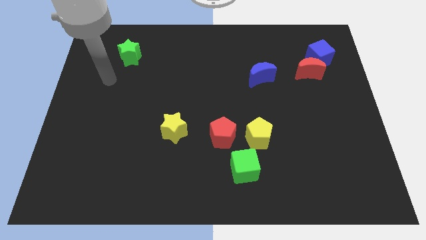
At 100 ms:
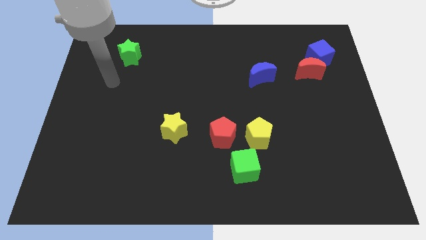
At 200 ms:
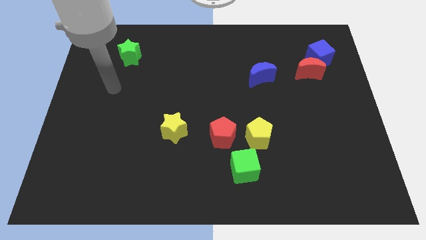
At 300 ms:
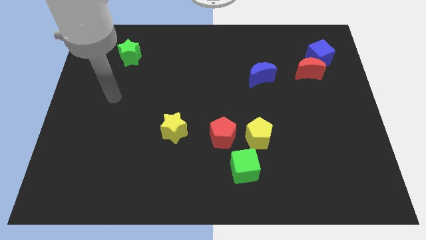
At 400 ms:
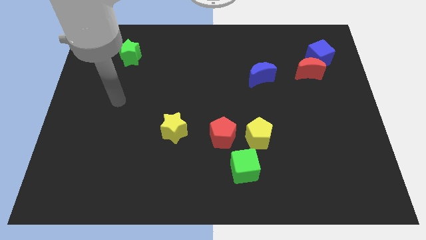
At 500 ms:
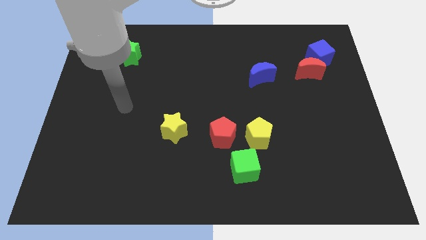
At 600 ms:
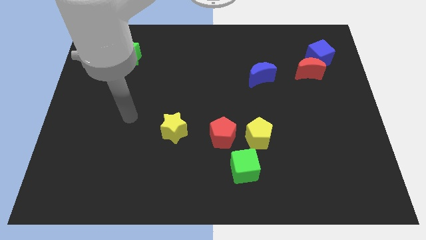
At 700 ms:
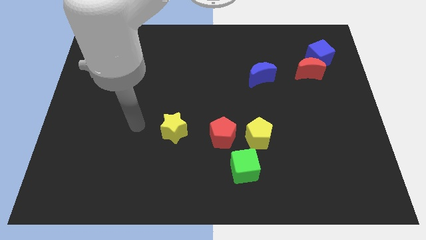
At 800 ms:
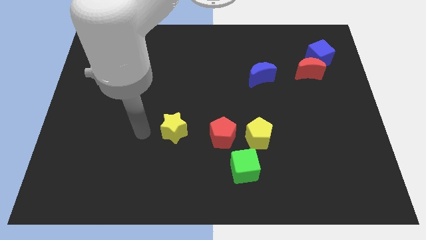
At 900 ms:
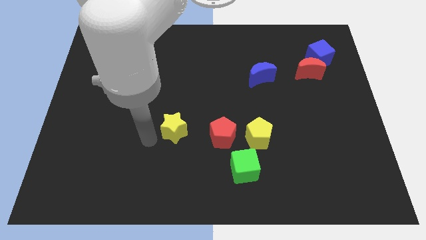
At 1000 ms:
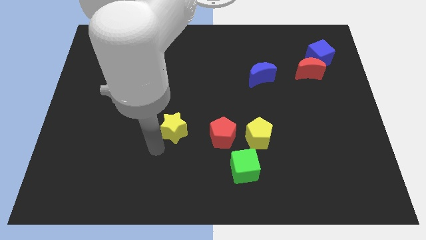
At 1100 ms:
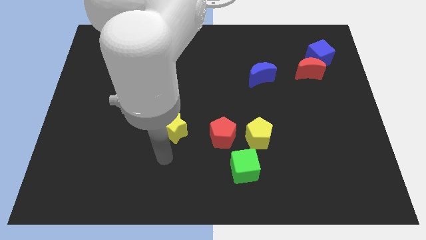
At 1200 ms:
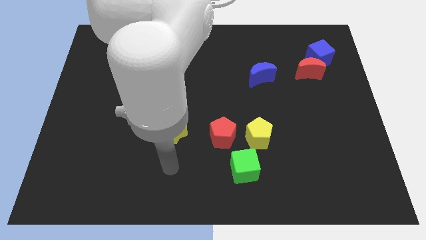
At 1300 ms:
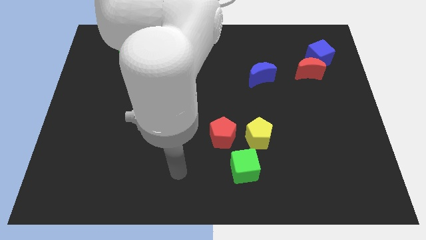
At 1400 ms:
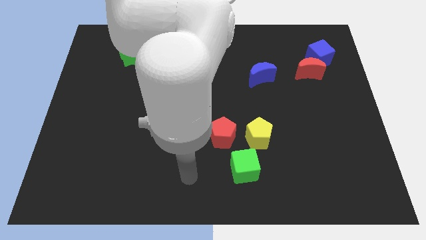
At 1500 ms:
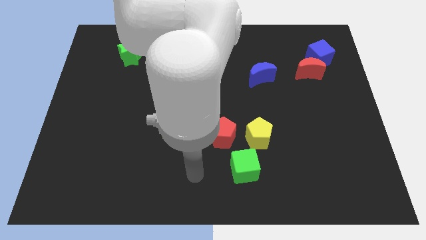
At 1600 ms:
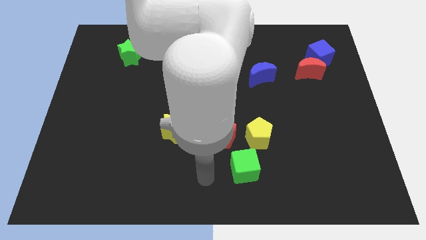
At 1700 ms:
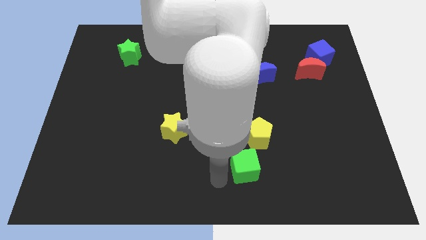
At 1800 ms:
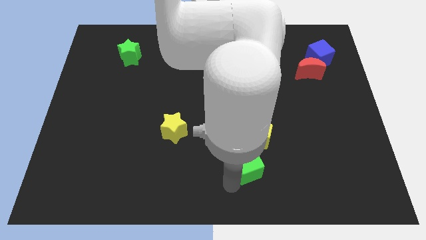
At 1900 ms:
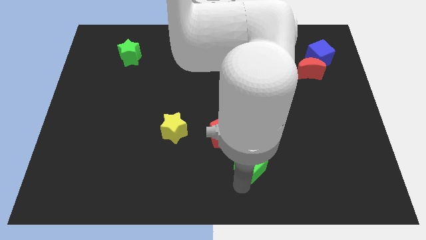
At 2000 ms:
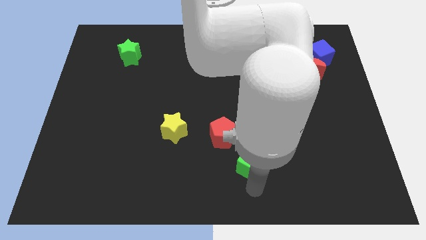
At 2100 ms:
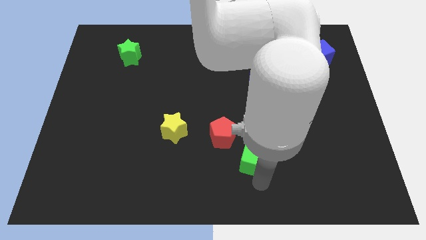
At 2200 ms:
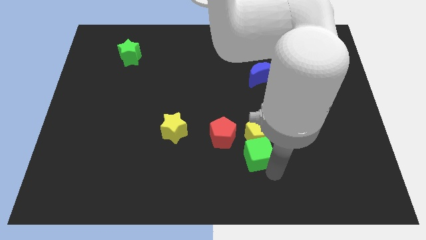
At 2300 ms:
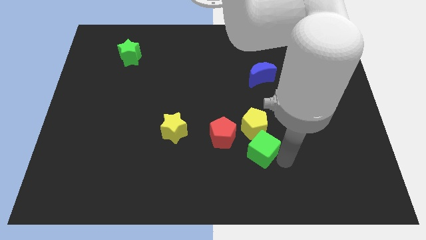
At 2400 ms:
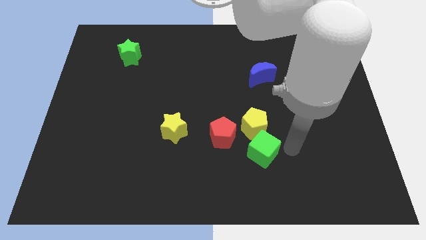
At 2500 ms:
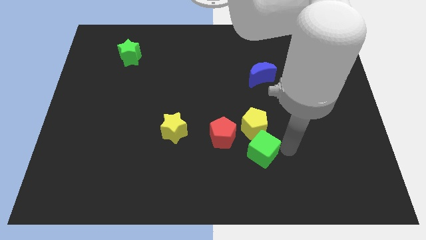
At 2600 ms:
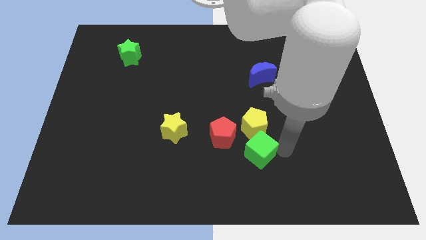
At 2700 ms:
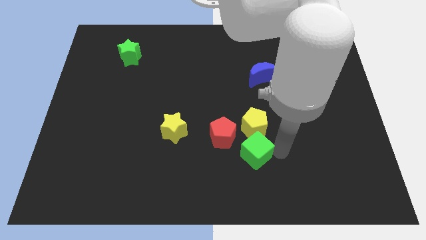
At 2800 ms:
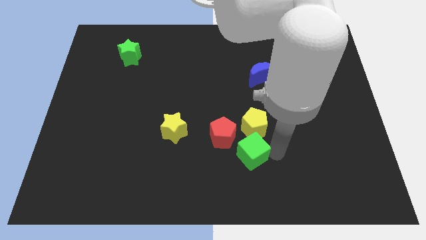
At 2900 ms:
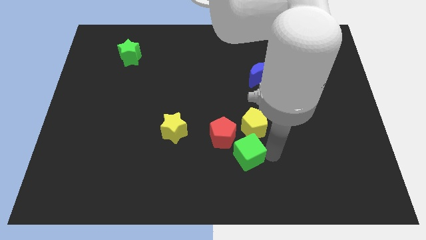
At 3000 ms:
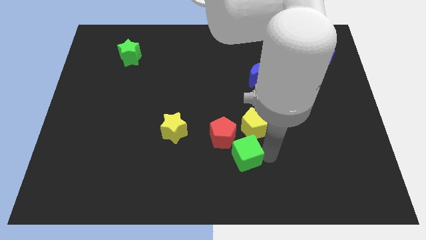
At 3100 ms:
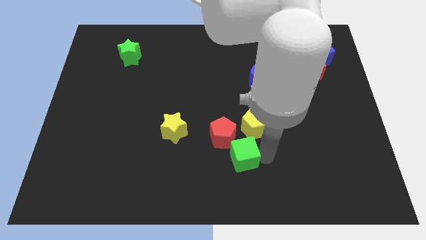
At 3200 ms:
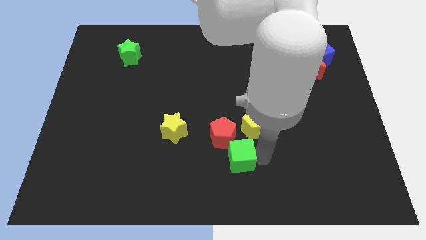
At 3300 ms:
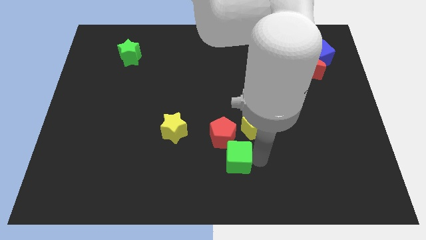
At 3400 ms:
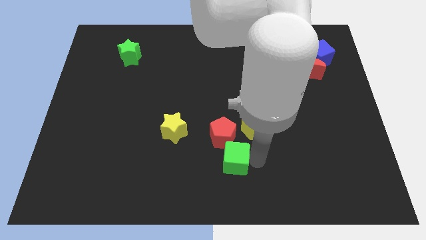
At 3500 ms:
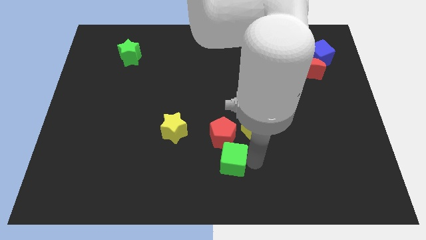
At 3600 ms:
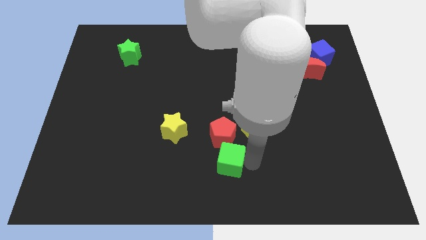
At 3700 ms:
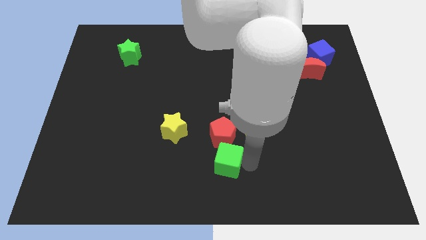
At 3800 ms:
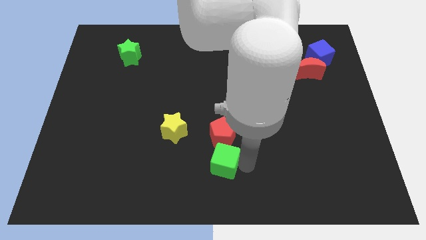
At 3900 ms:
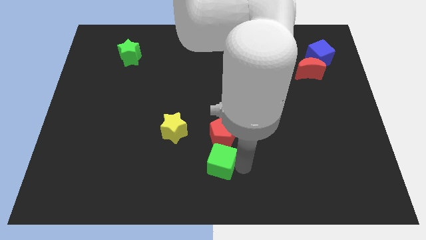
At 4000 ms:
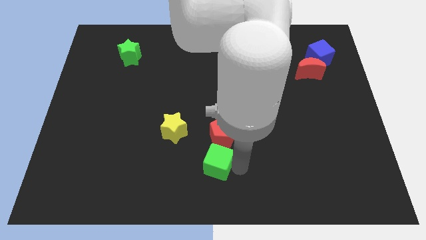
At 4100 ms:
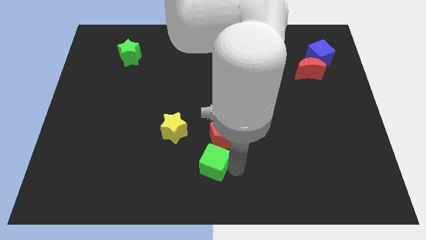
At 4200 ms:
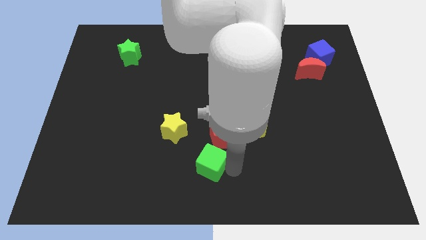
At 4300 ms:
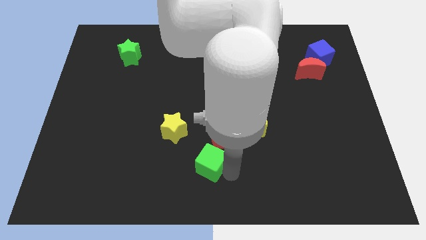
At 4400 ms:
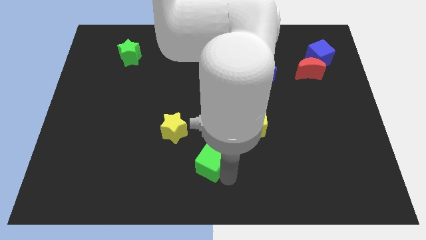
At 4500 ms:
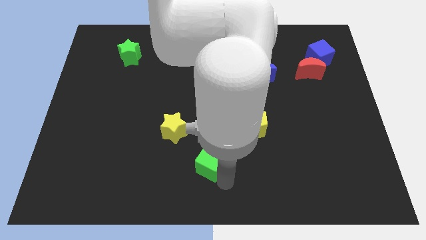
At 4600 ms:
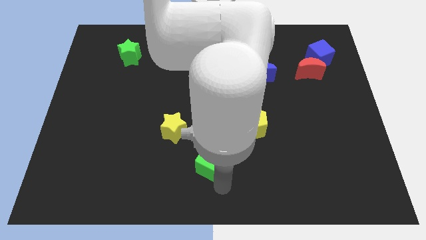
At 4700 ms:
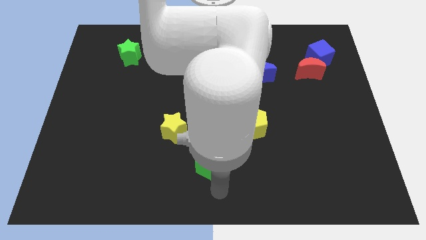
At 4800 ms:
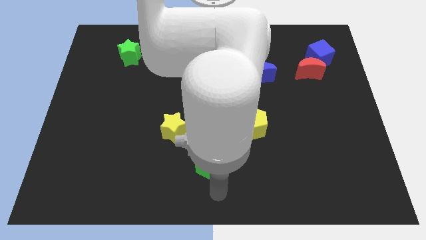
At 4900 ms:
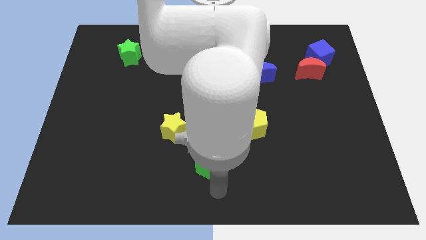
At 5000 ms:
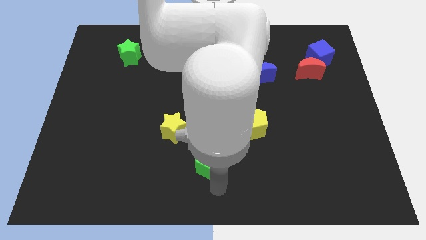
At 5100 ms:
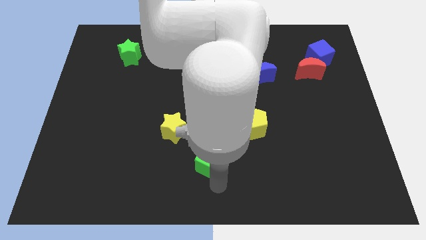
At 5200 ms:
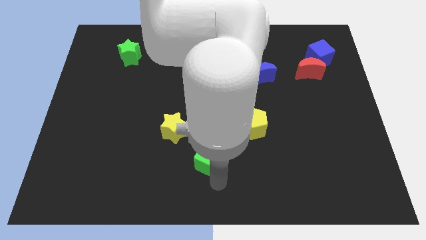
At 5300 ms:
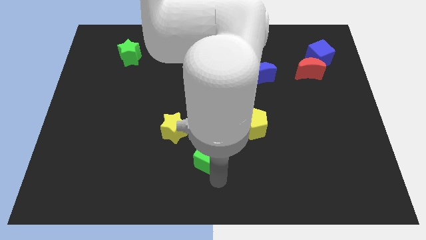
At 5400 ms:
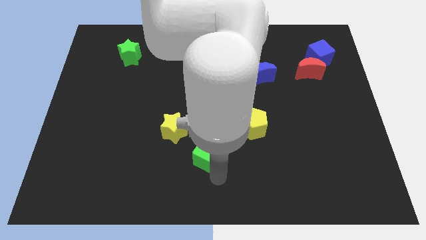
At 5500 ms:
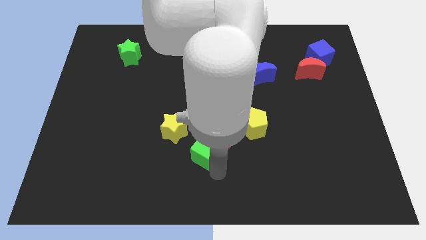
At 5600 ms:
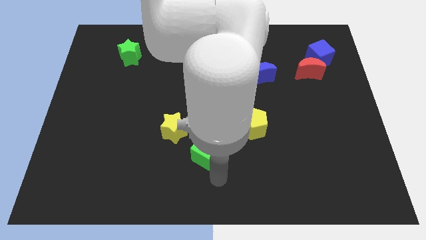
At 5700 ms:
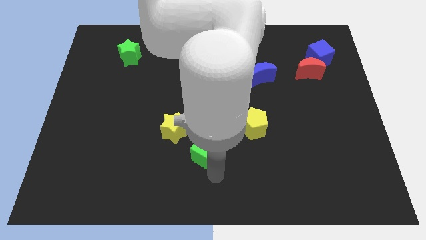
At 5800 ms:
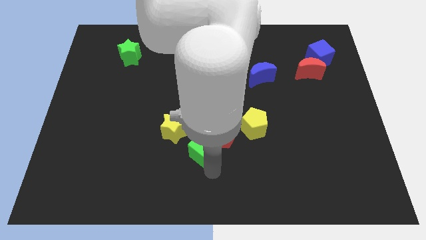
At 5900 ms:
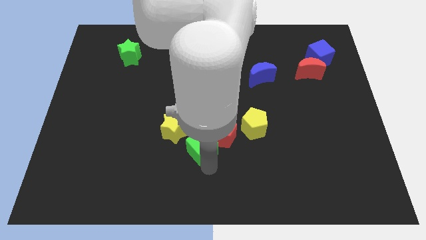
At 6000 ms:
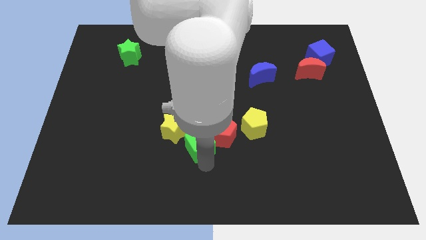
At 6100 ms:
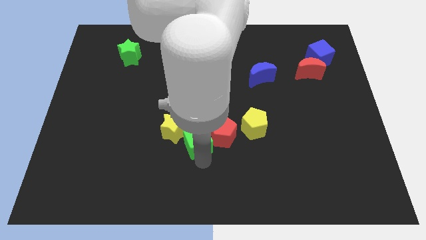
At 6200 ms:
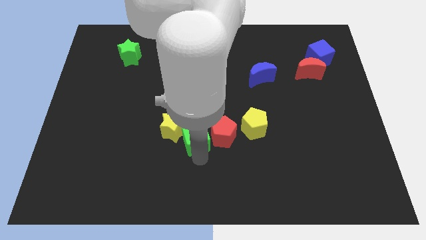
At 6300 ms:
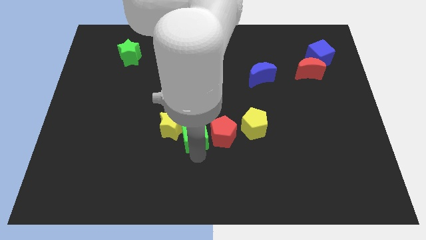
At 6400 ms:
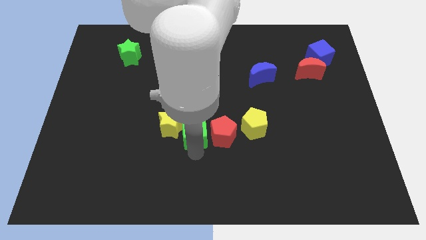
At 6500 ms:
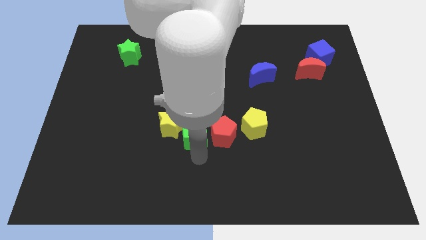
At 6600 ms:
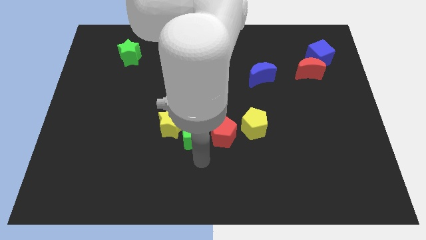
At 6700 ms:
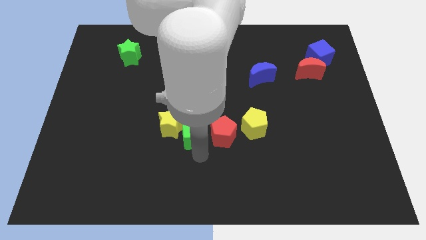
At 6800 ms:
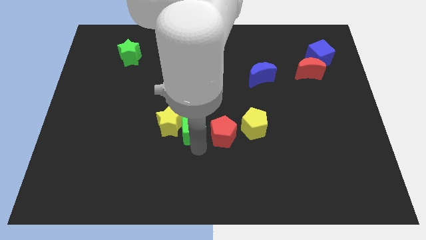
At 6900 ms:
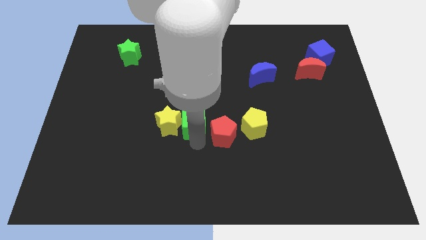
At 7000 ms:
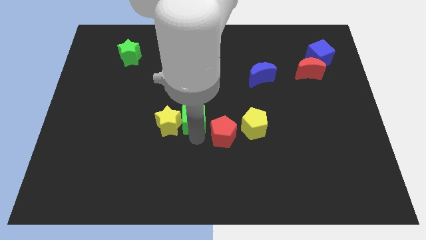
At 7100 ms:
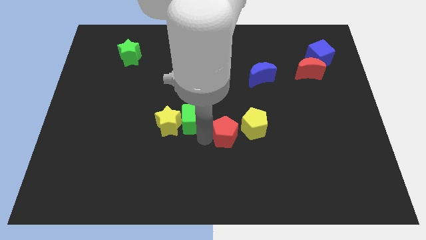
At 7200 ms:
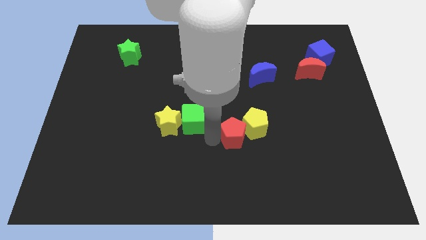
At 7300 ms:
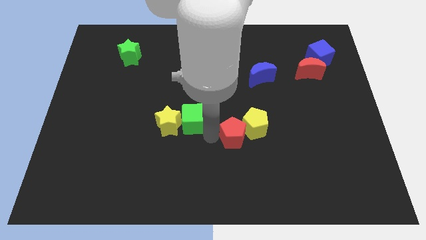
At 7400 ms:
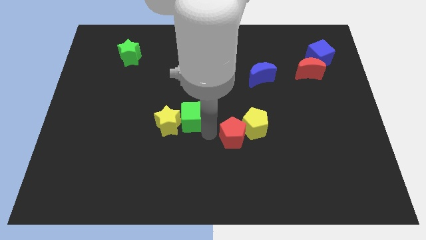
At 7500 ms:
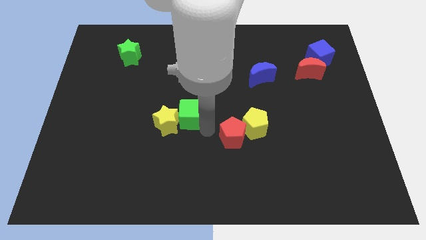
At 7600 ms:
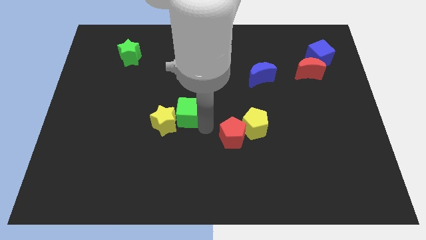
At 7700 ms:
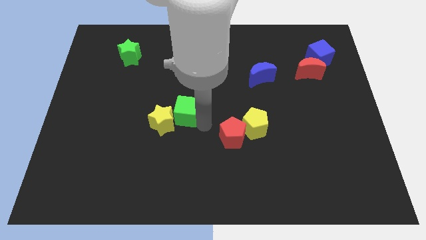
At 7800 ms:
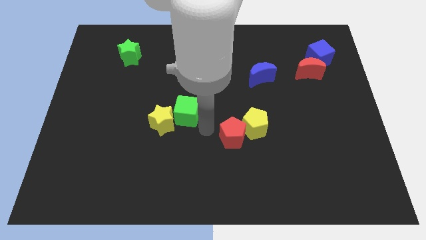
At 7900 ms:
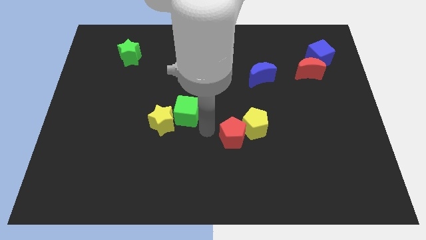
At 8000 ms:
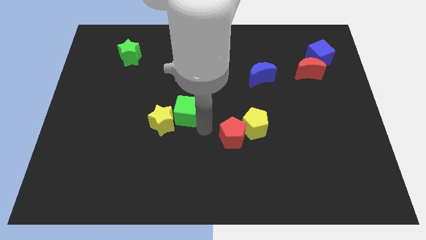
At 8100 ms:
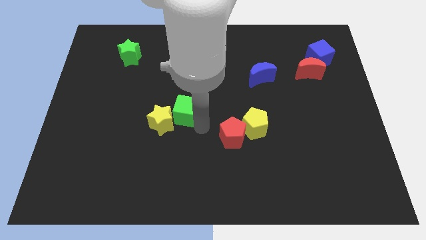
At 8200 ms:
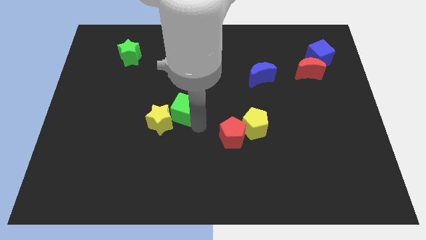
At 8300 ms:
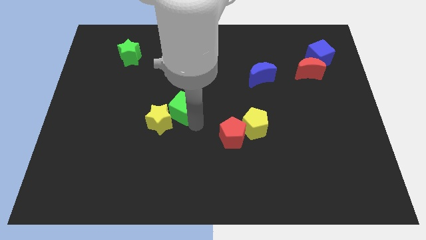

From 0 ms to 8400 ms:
move the green cube up and to the left
